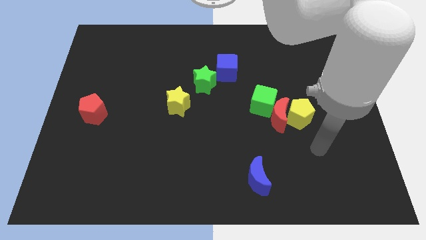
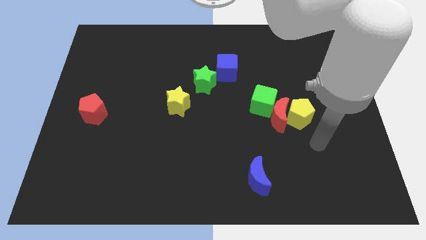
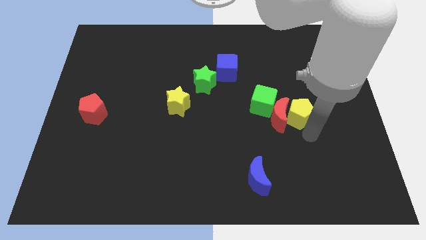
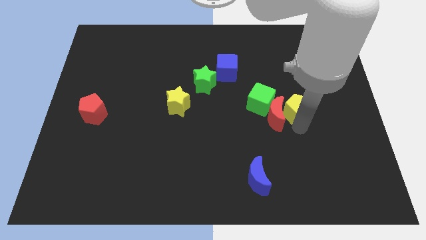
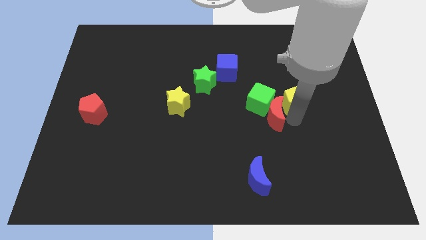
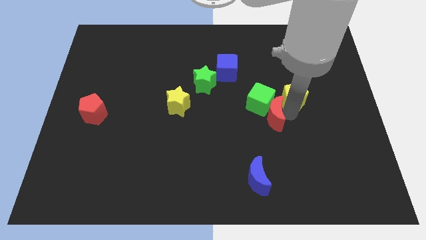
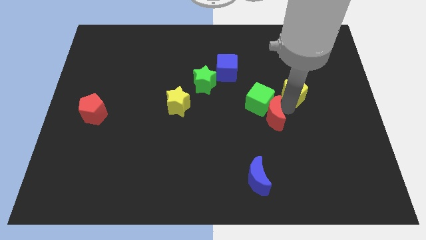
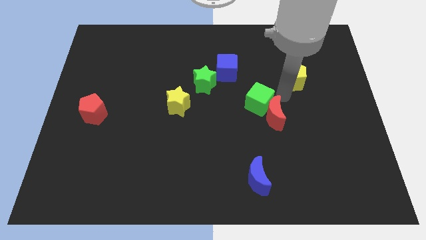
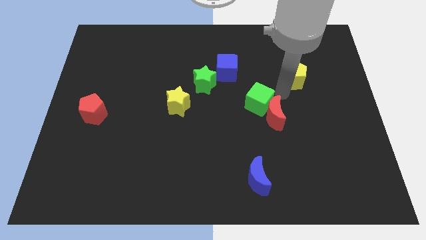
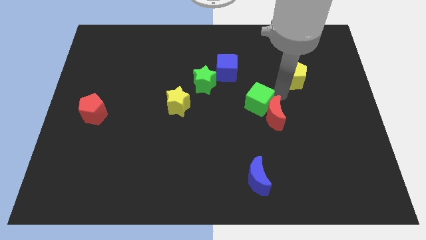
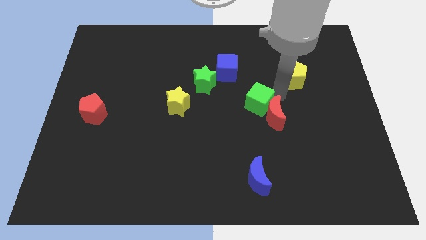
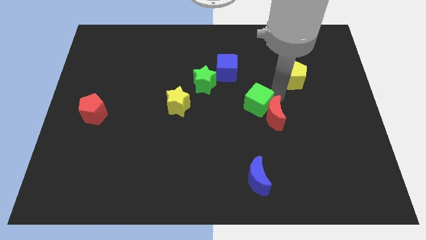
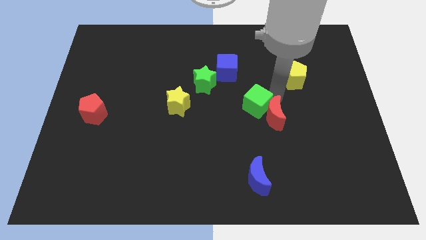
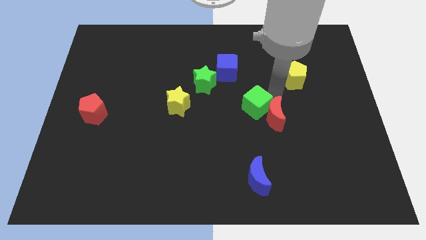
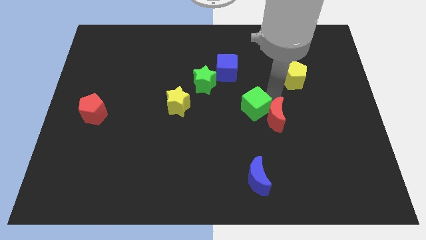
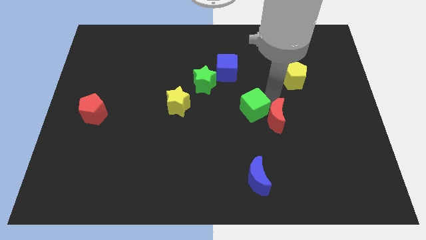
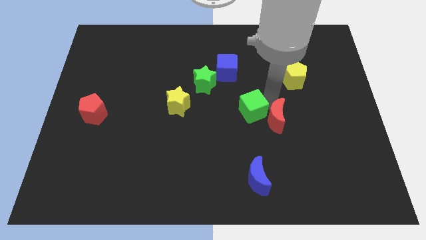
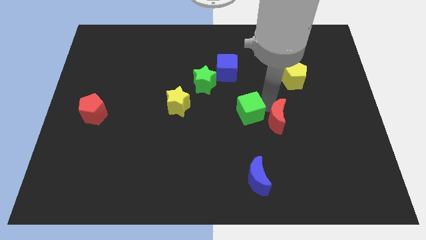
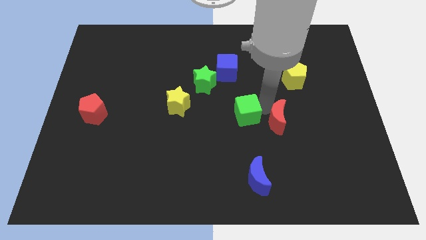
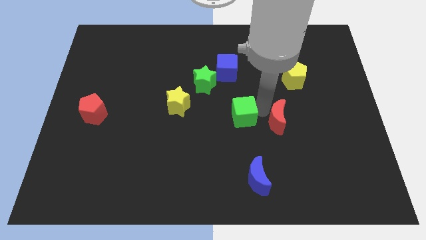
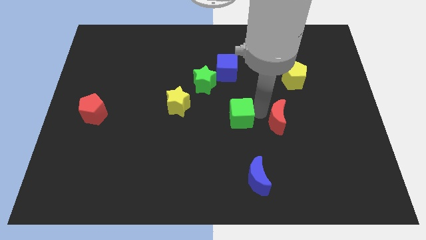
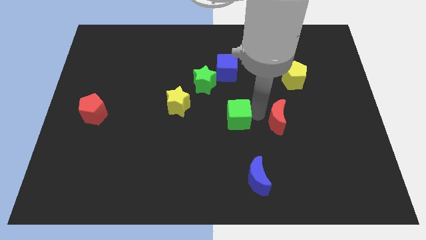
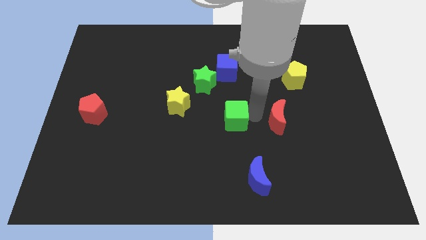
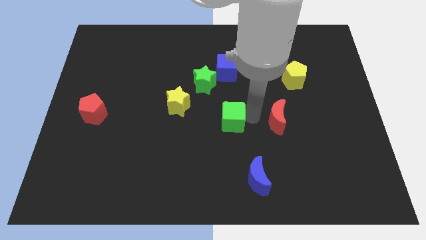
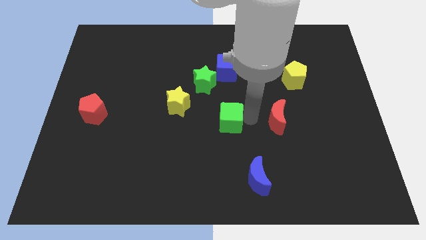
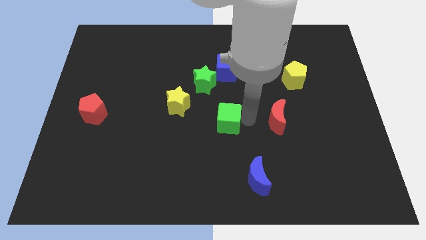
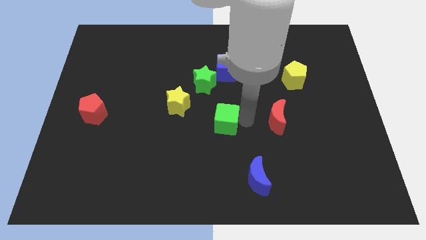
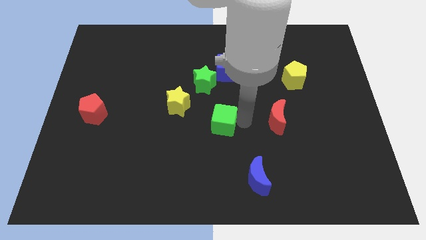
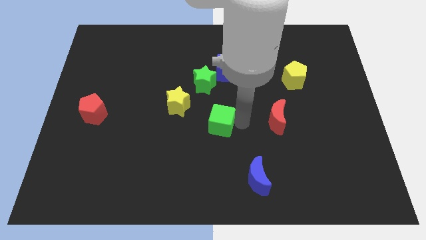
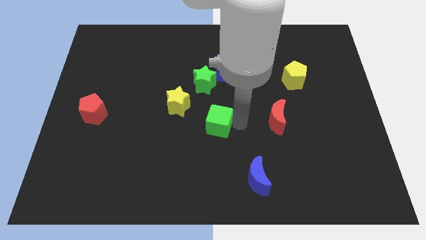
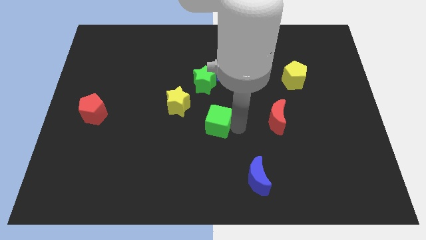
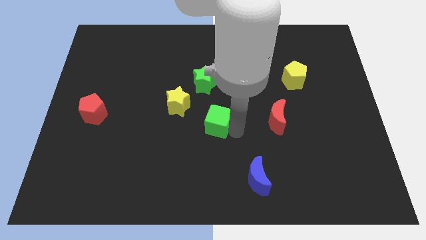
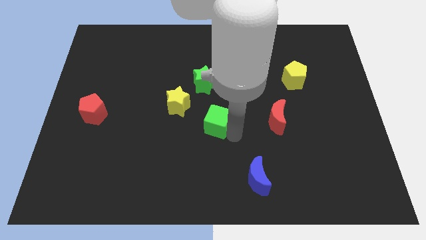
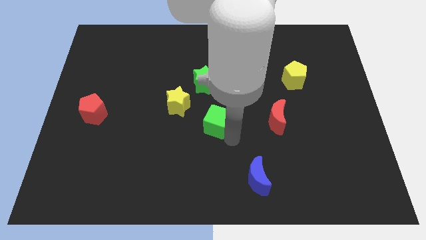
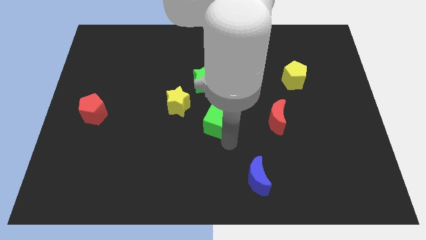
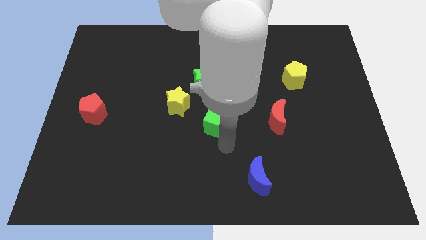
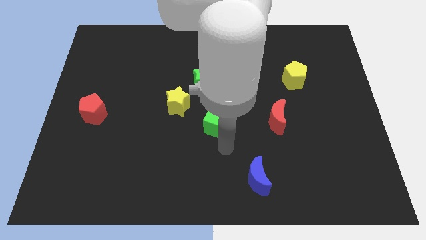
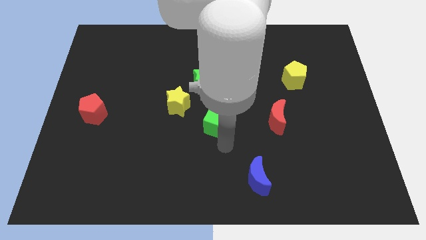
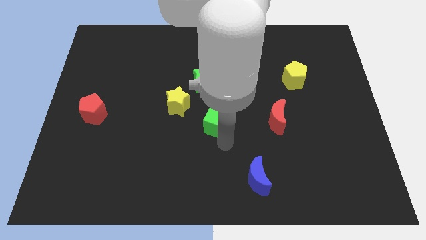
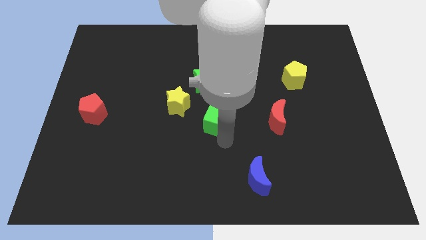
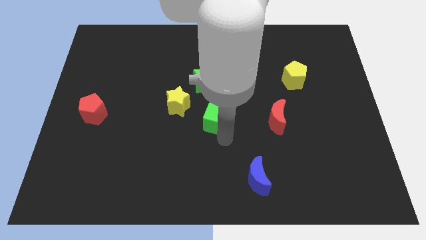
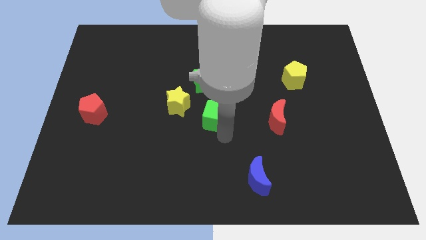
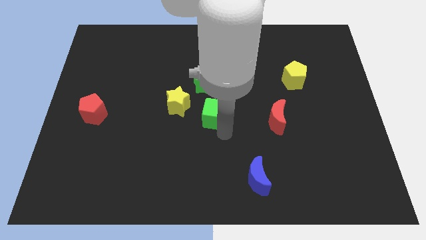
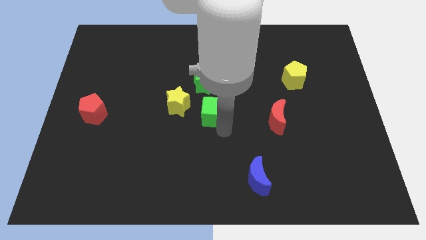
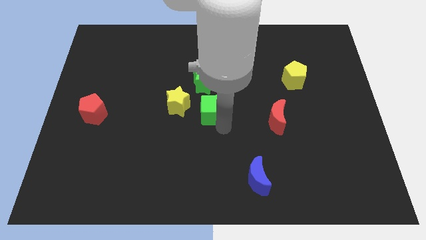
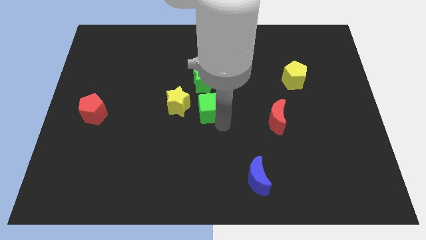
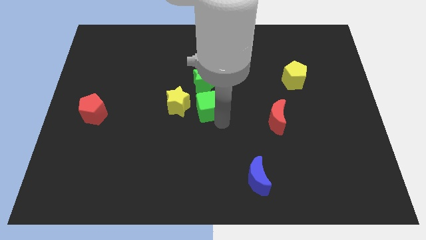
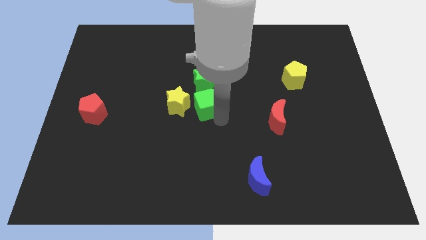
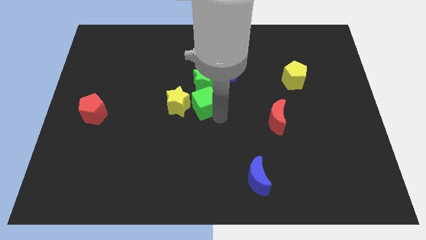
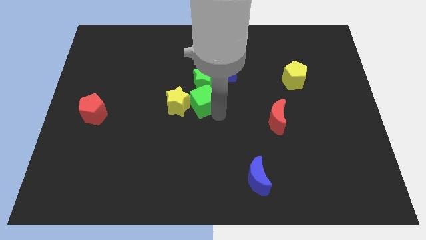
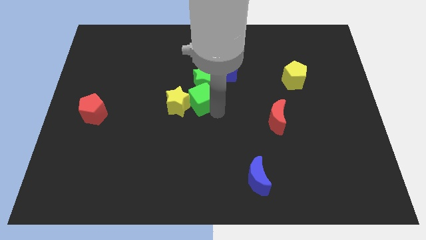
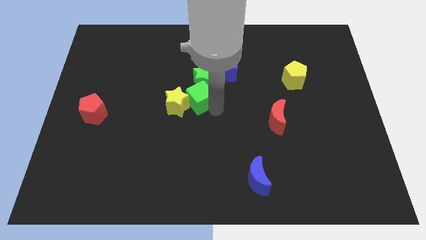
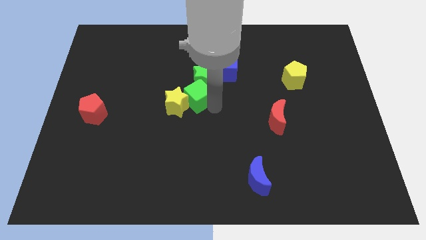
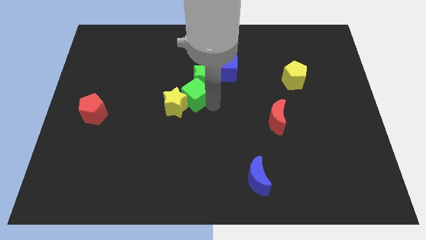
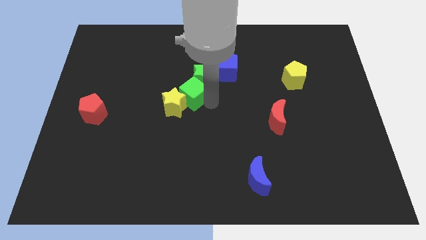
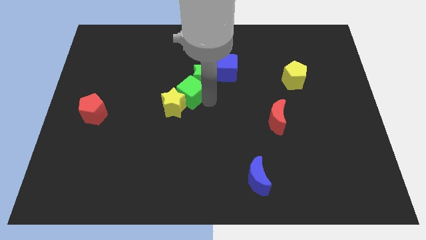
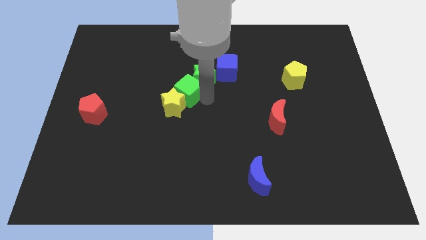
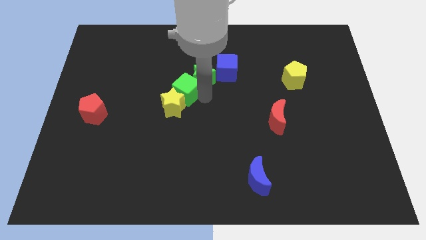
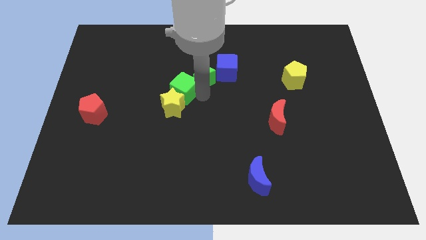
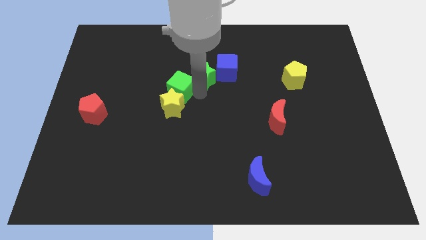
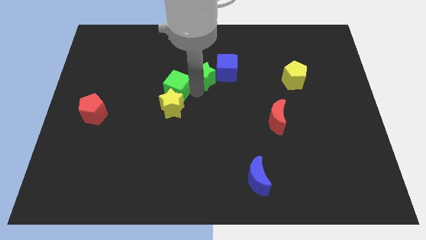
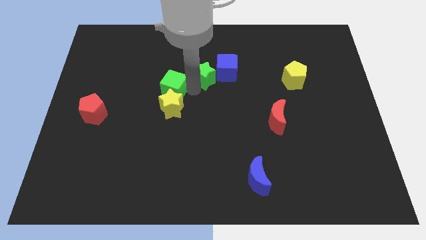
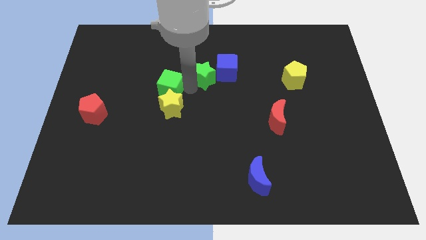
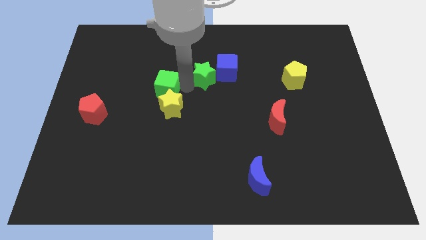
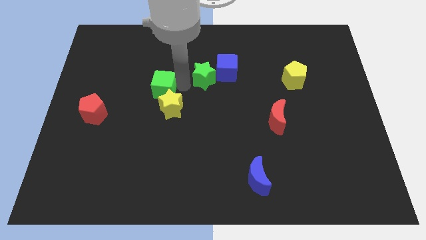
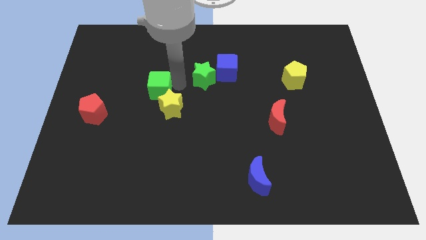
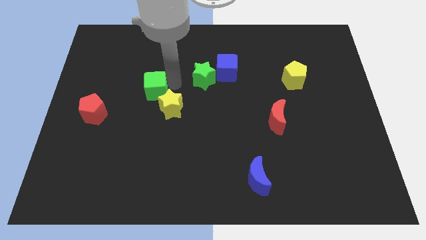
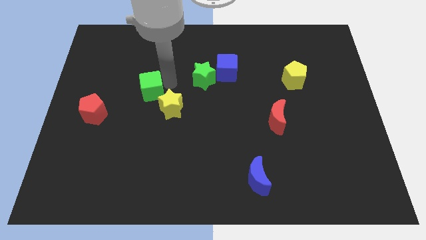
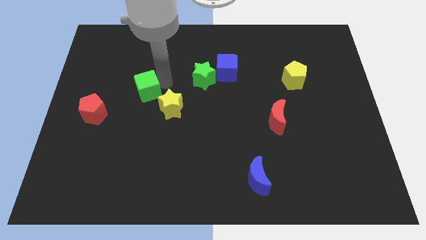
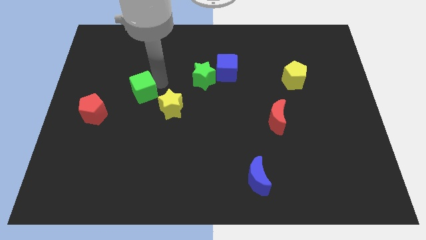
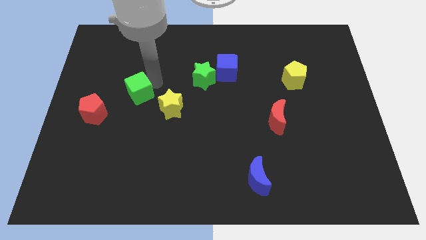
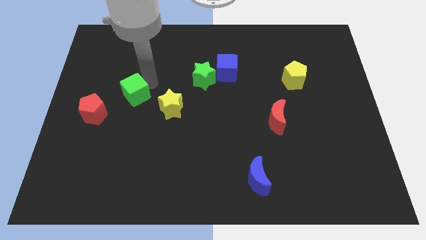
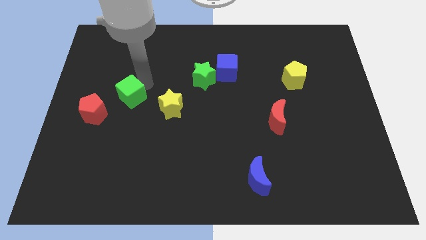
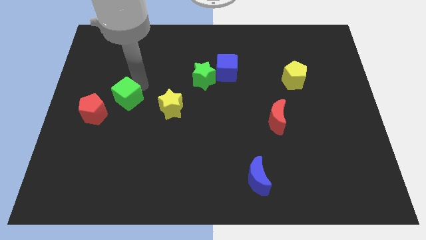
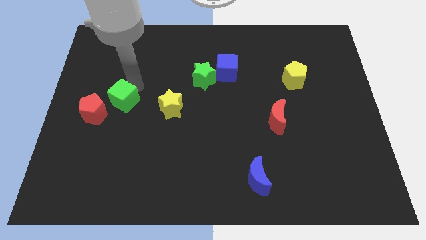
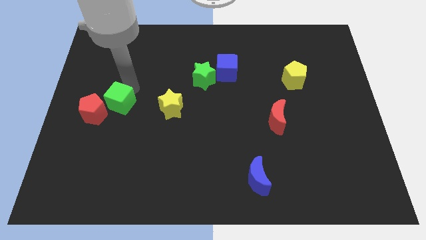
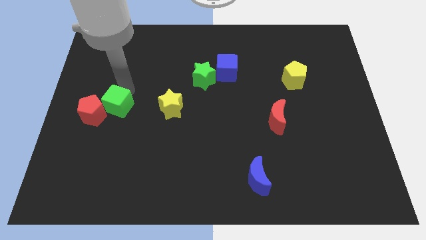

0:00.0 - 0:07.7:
put the green cube next to the red pentagon
